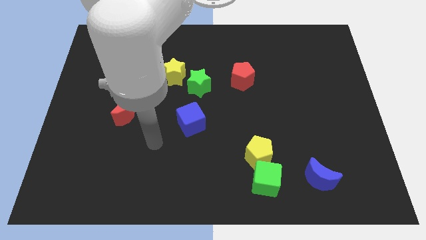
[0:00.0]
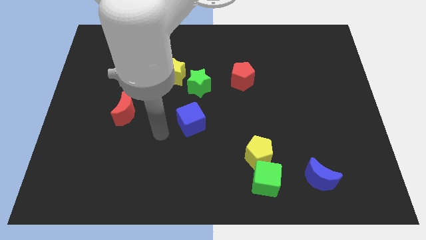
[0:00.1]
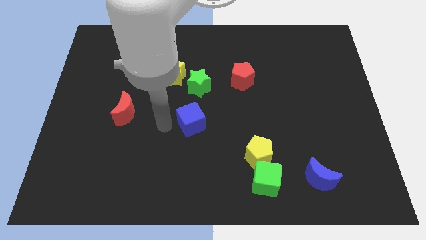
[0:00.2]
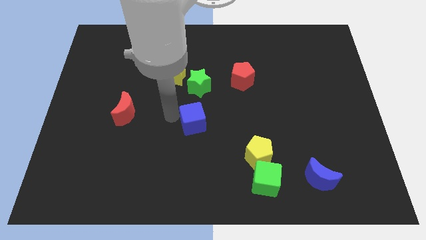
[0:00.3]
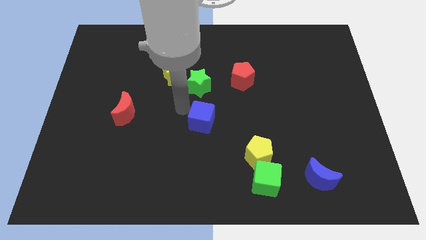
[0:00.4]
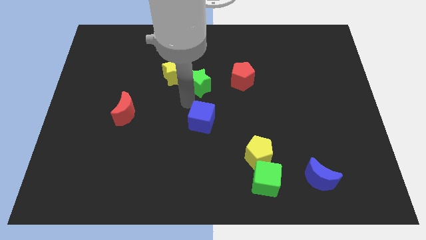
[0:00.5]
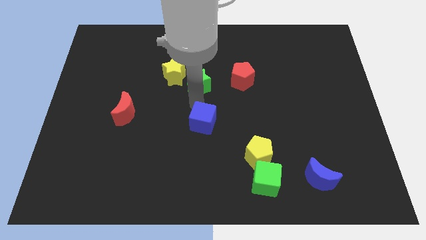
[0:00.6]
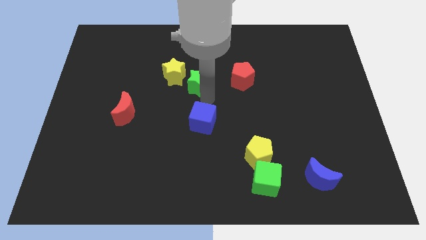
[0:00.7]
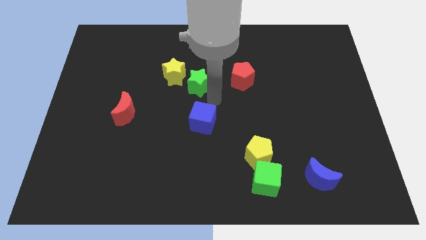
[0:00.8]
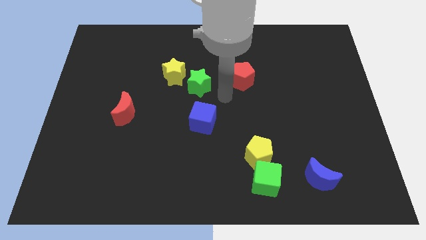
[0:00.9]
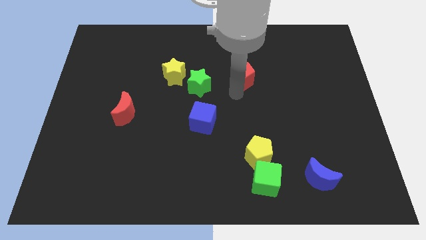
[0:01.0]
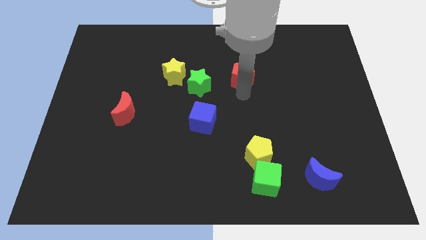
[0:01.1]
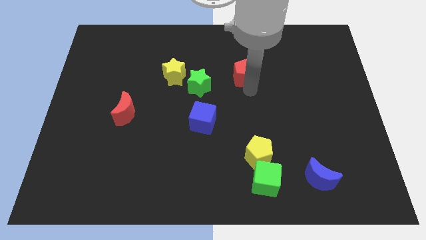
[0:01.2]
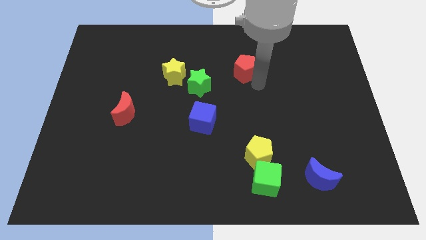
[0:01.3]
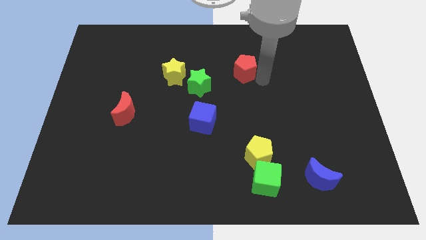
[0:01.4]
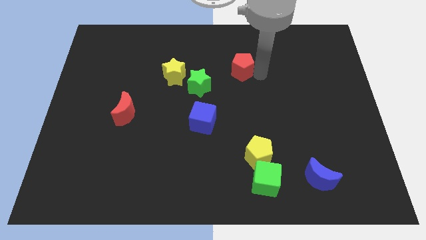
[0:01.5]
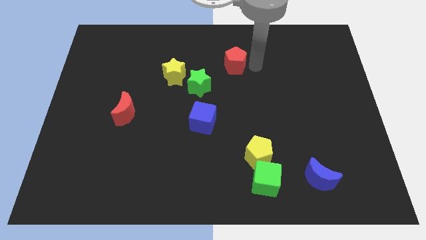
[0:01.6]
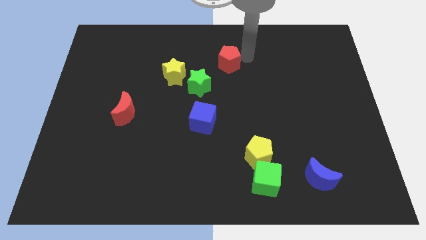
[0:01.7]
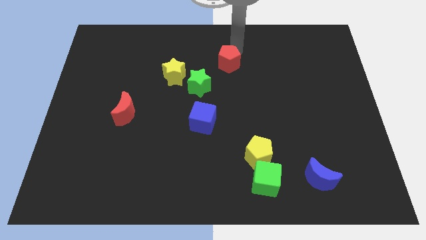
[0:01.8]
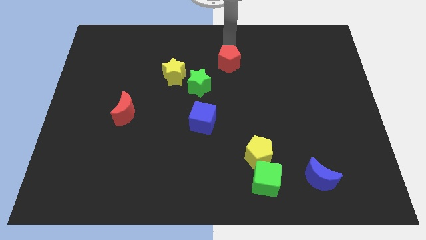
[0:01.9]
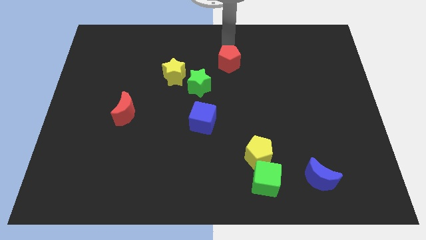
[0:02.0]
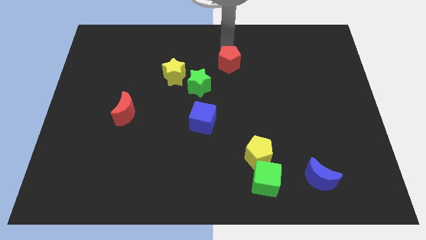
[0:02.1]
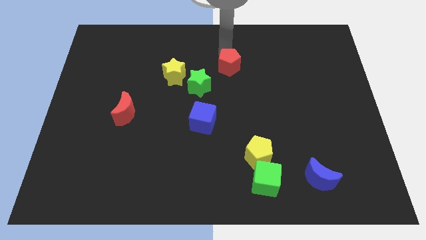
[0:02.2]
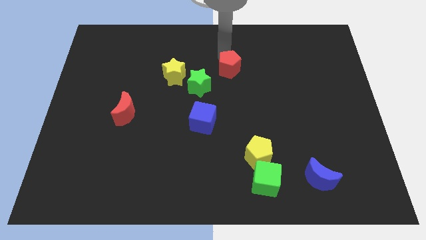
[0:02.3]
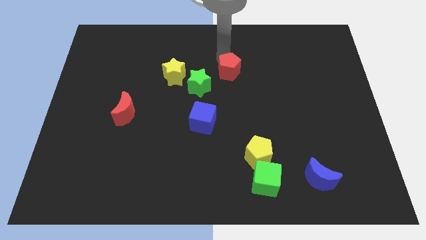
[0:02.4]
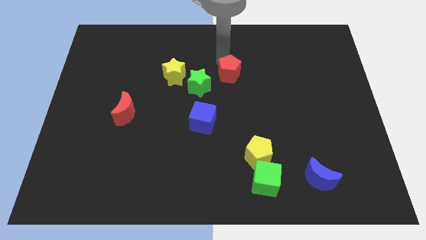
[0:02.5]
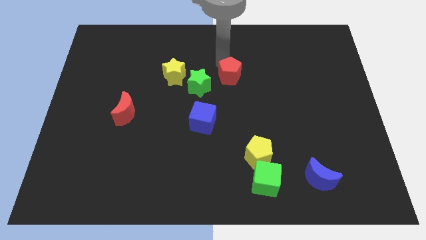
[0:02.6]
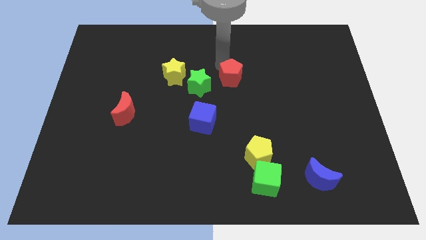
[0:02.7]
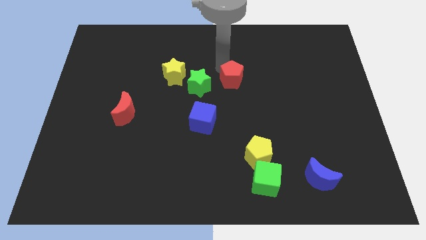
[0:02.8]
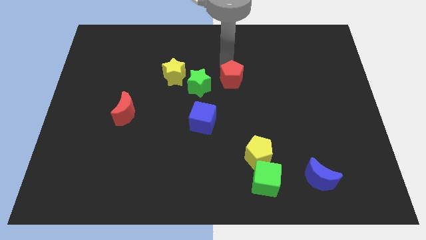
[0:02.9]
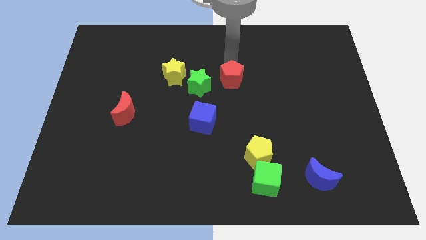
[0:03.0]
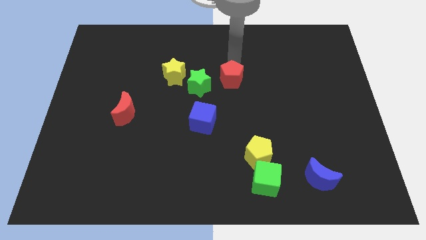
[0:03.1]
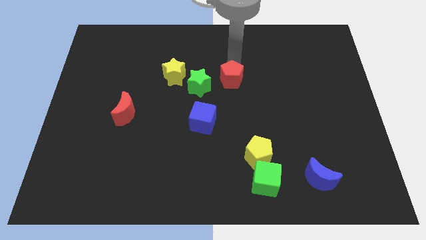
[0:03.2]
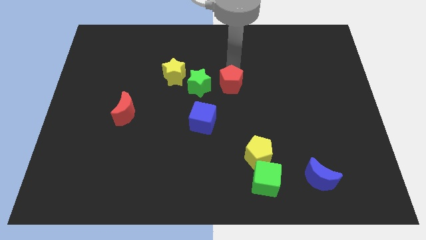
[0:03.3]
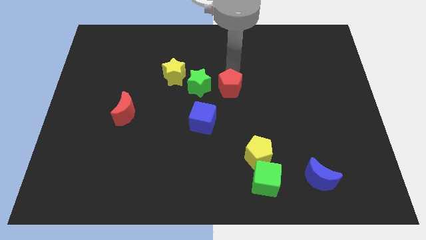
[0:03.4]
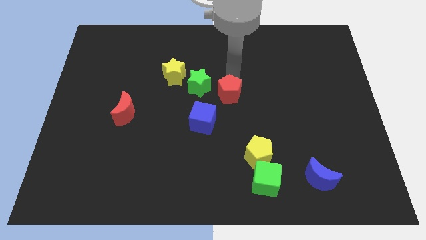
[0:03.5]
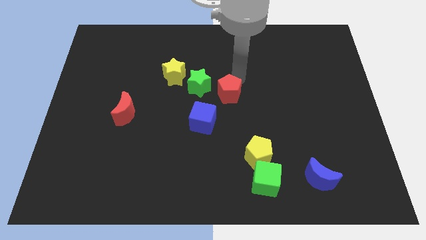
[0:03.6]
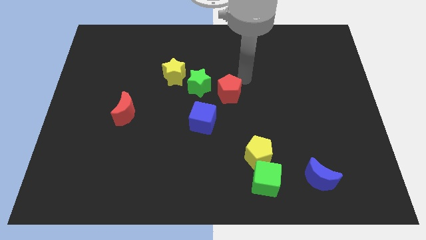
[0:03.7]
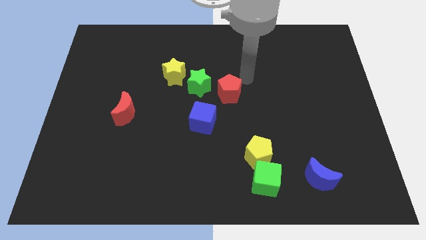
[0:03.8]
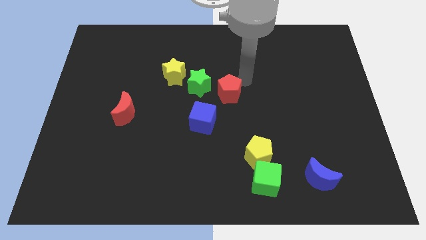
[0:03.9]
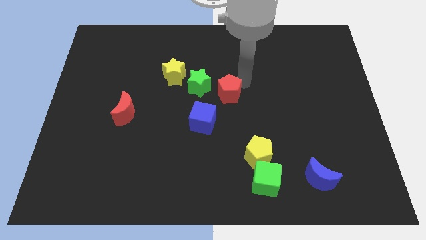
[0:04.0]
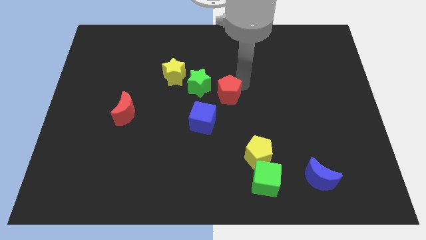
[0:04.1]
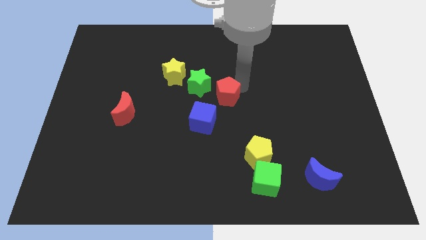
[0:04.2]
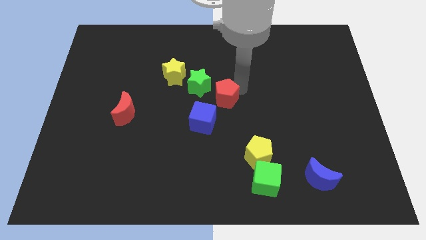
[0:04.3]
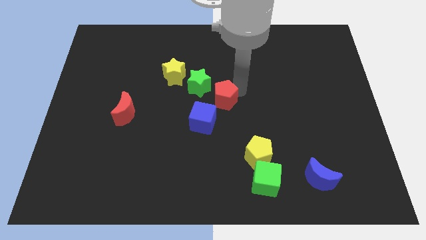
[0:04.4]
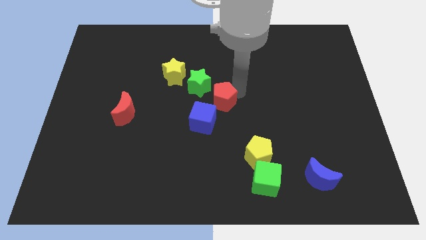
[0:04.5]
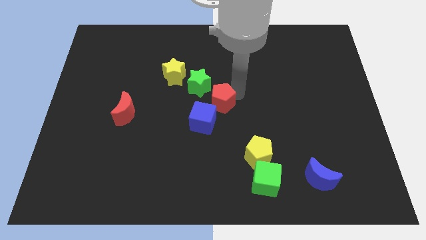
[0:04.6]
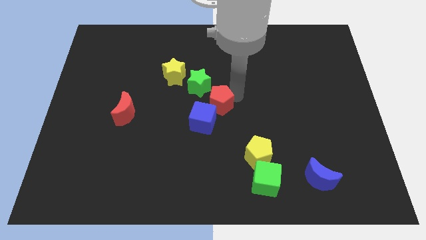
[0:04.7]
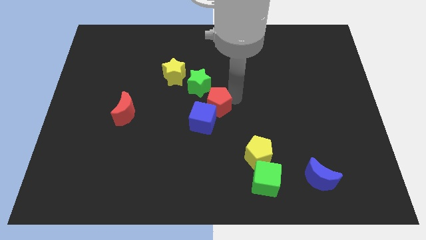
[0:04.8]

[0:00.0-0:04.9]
put the red pentagon towards the blue cube

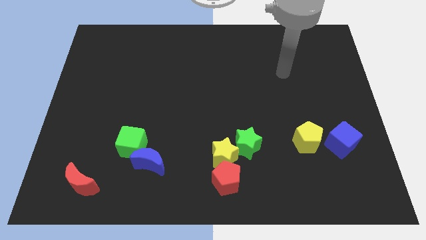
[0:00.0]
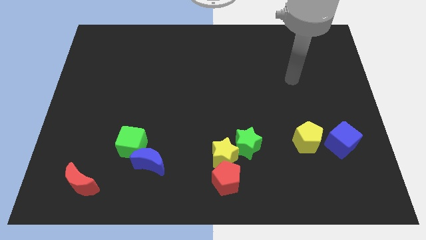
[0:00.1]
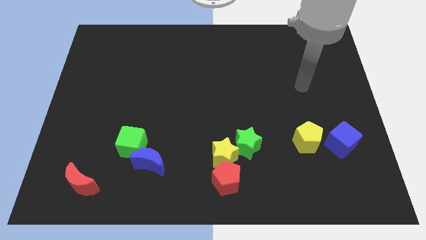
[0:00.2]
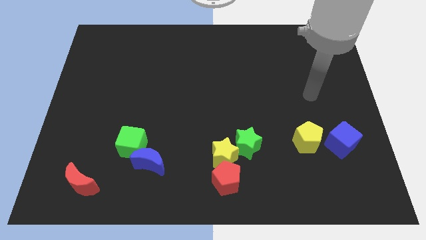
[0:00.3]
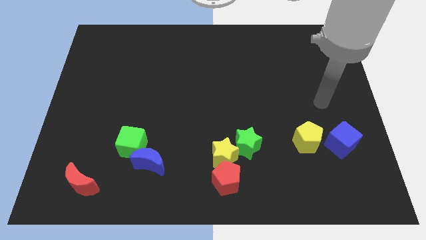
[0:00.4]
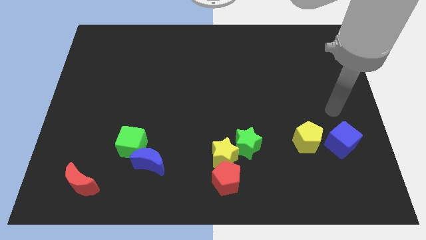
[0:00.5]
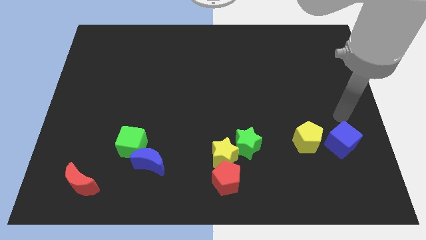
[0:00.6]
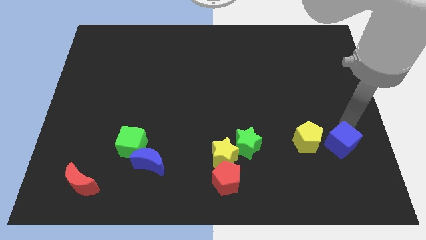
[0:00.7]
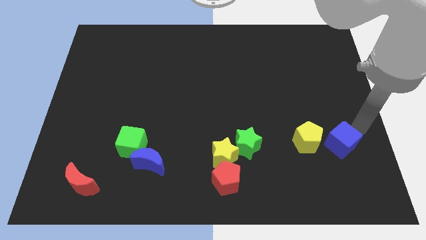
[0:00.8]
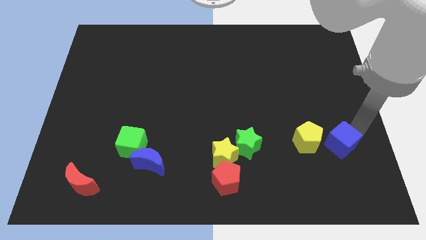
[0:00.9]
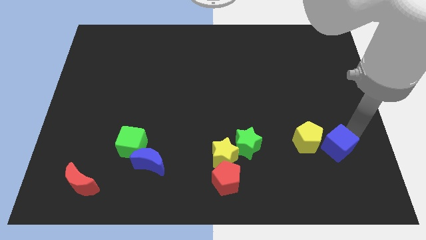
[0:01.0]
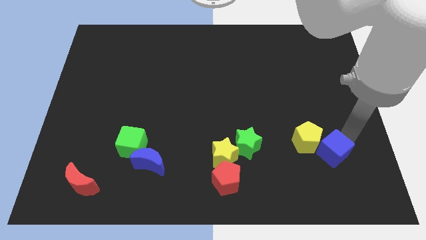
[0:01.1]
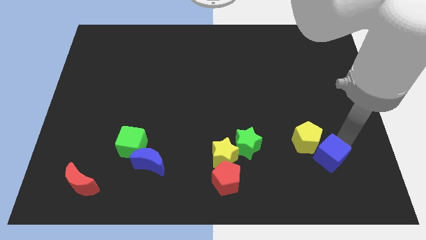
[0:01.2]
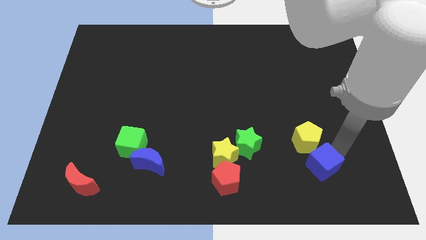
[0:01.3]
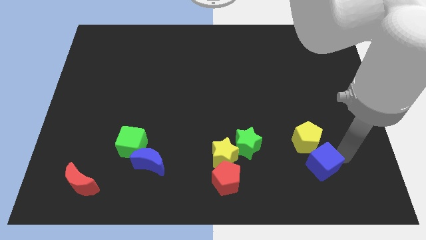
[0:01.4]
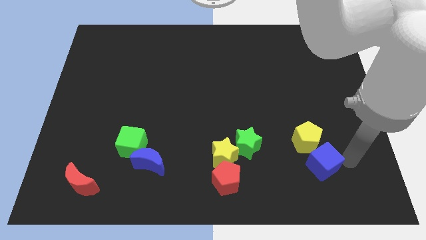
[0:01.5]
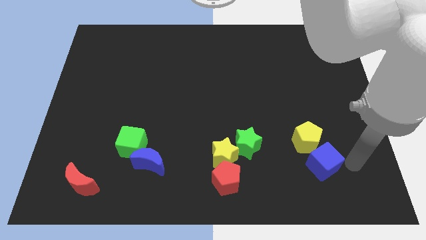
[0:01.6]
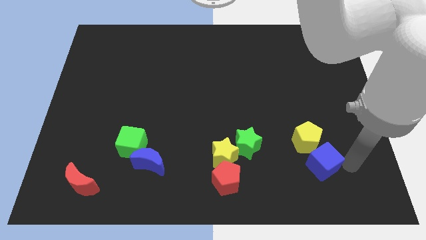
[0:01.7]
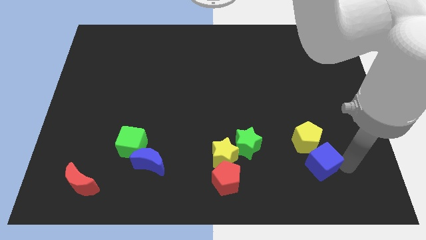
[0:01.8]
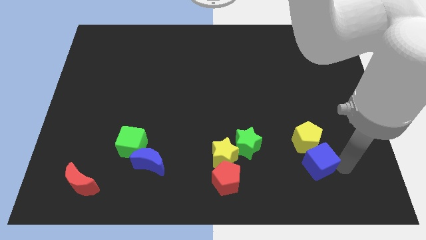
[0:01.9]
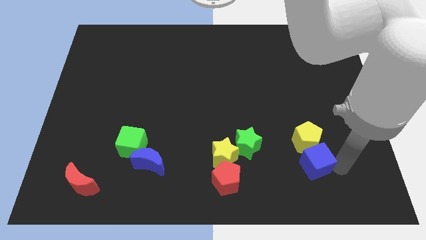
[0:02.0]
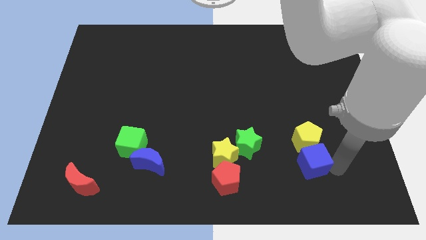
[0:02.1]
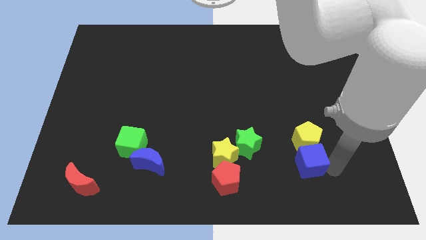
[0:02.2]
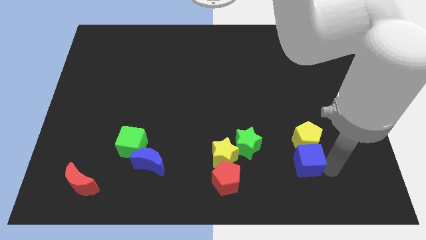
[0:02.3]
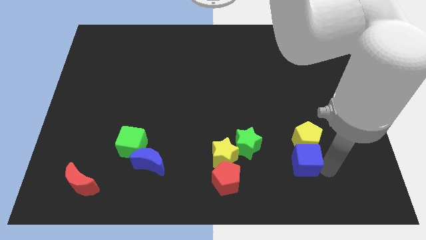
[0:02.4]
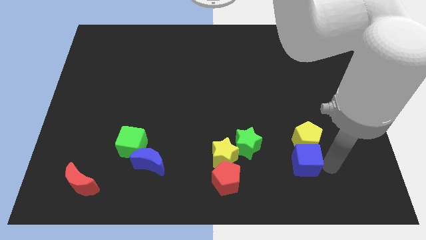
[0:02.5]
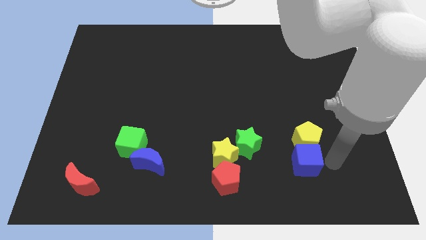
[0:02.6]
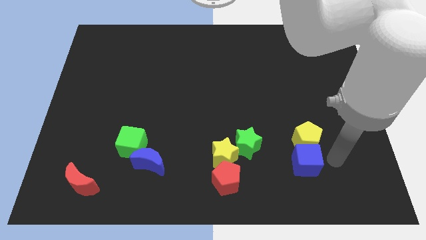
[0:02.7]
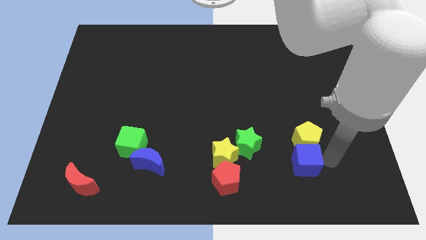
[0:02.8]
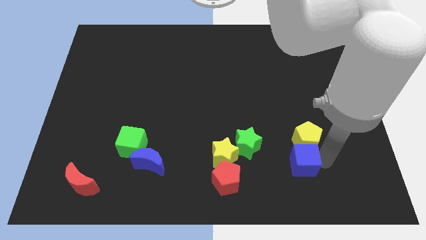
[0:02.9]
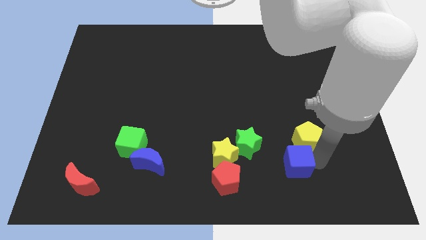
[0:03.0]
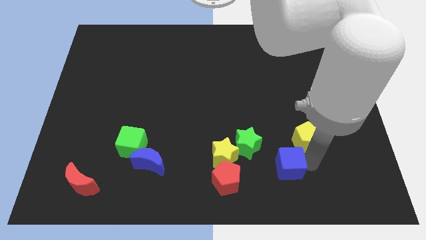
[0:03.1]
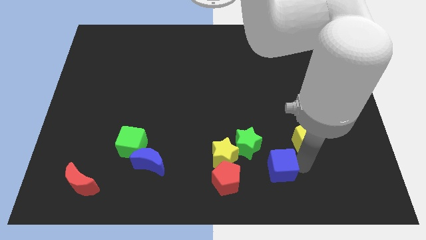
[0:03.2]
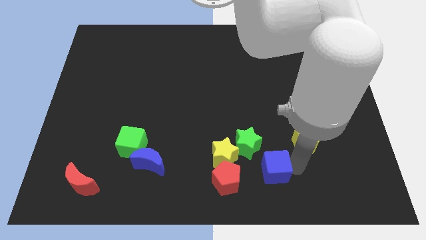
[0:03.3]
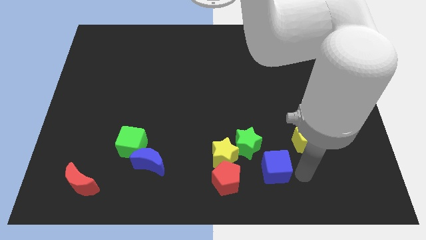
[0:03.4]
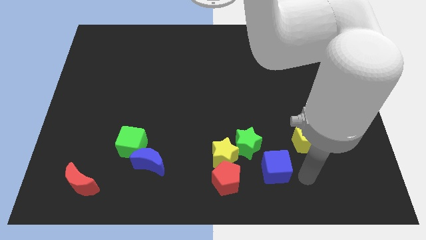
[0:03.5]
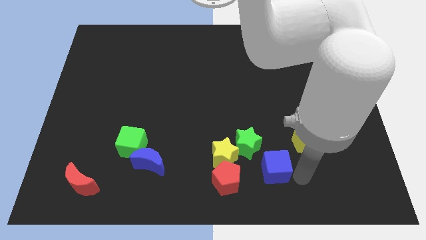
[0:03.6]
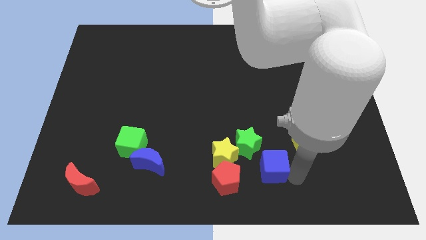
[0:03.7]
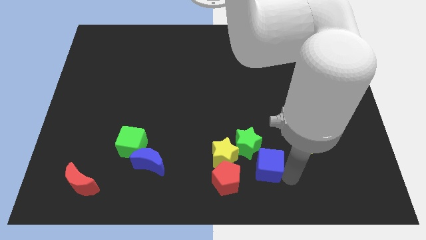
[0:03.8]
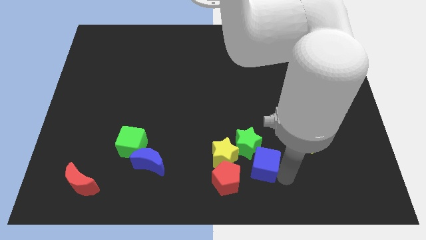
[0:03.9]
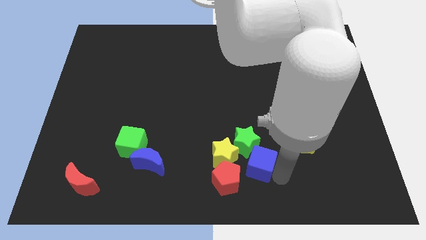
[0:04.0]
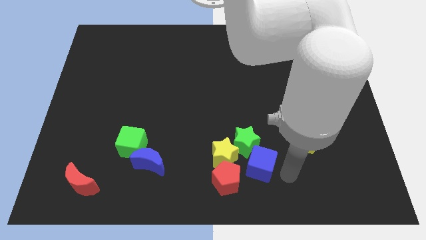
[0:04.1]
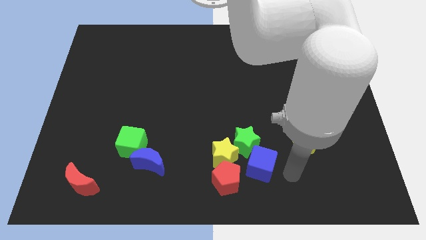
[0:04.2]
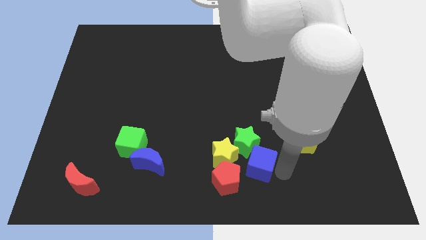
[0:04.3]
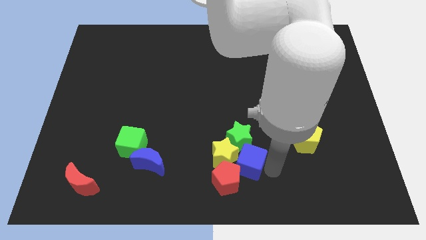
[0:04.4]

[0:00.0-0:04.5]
put the blue cube next to the yellow star
